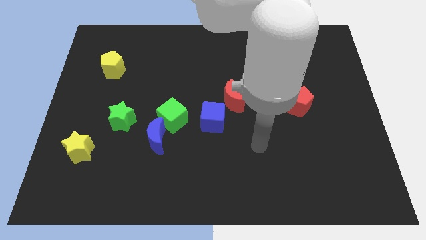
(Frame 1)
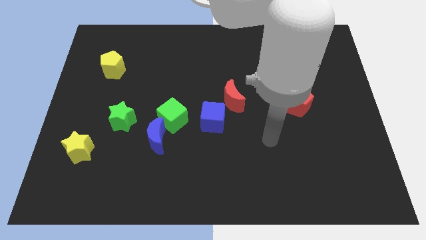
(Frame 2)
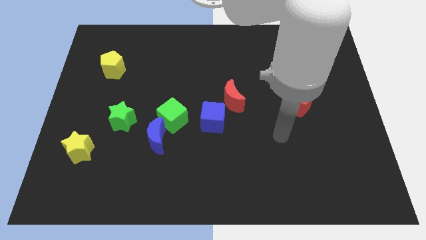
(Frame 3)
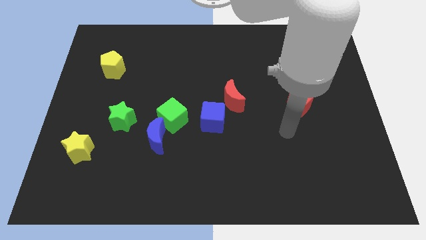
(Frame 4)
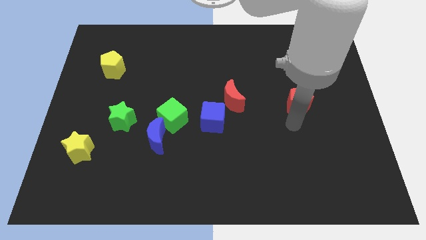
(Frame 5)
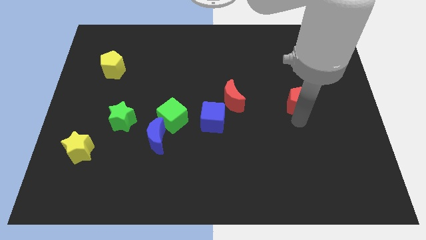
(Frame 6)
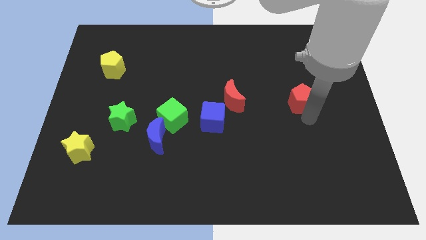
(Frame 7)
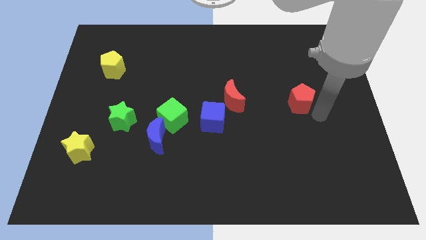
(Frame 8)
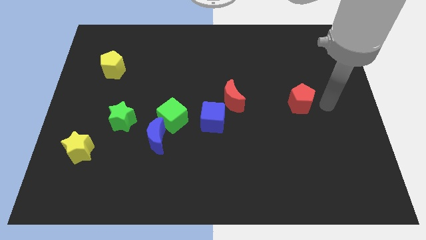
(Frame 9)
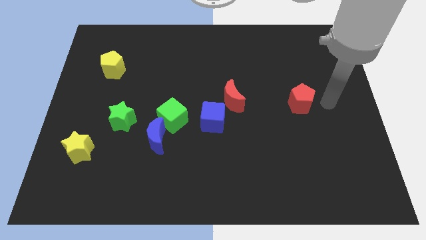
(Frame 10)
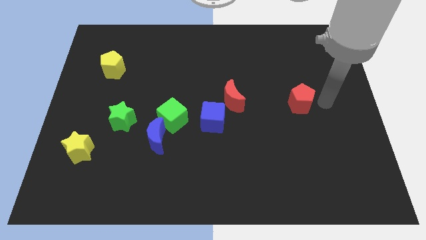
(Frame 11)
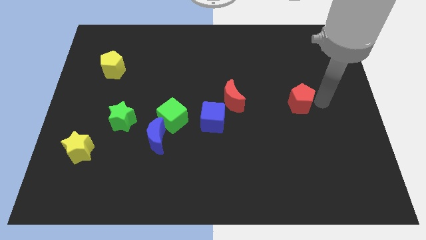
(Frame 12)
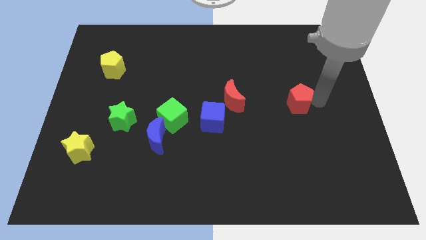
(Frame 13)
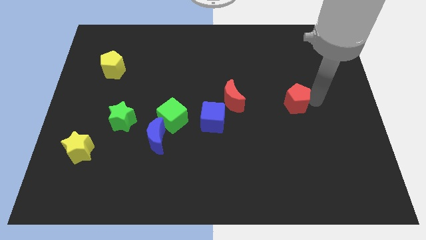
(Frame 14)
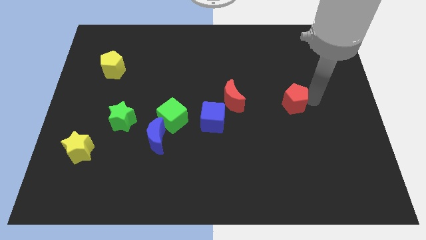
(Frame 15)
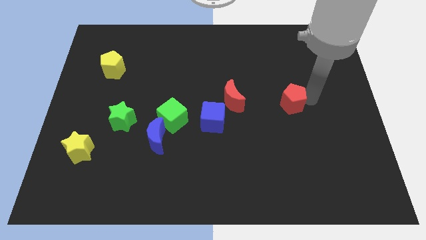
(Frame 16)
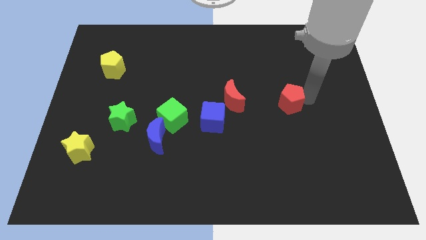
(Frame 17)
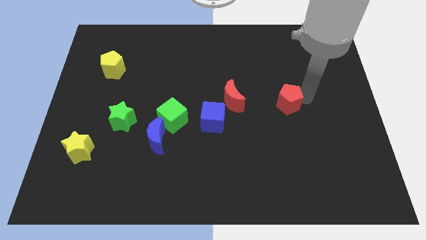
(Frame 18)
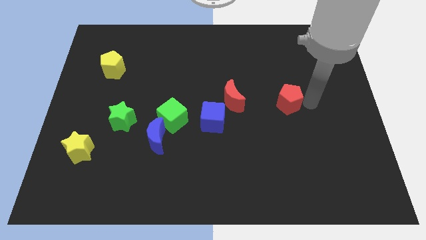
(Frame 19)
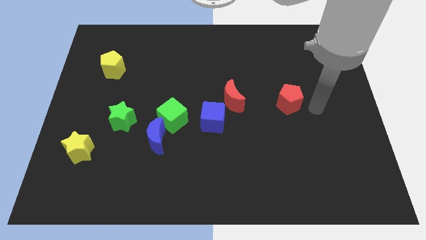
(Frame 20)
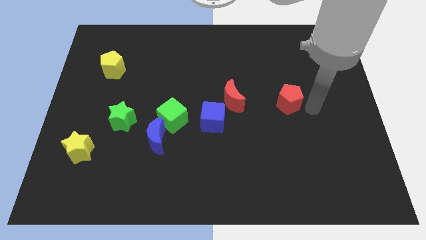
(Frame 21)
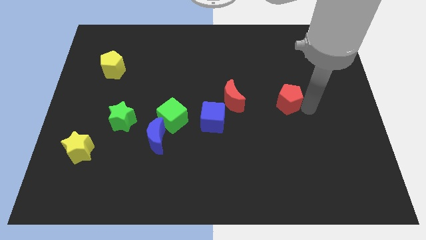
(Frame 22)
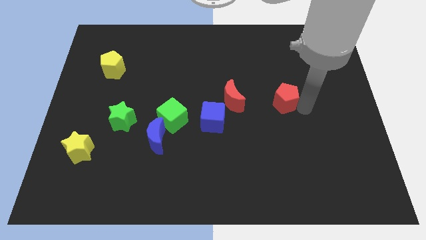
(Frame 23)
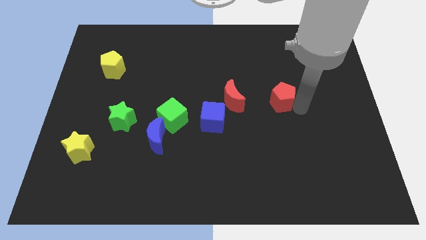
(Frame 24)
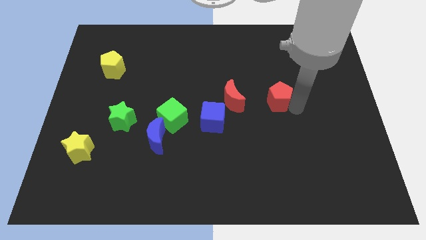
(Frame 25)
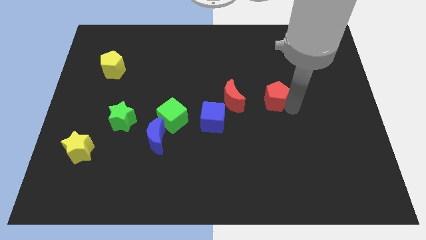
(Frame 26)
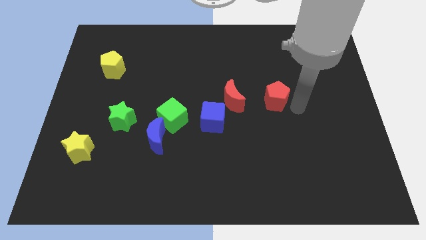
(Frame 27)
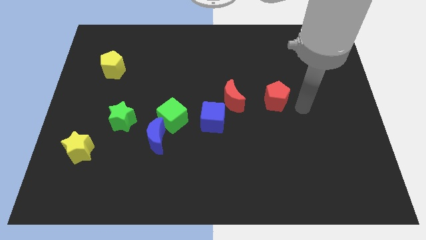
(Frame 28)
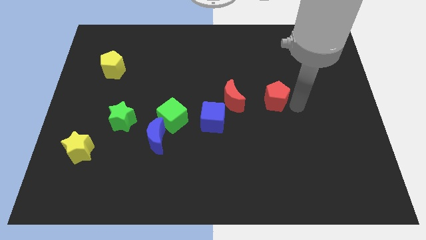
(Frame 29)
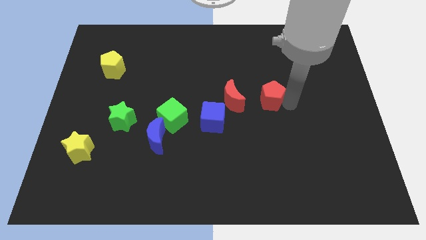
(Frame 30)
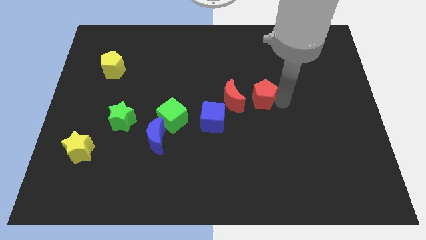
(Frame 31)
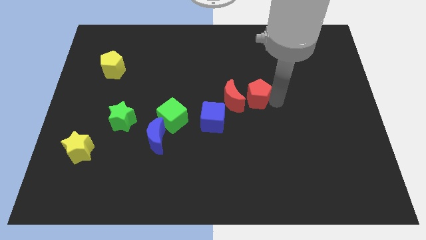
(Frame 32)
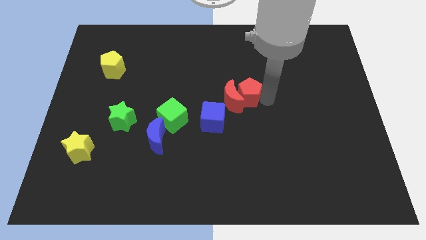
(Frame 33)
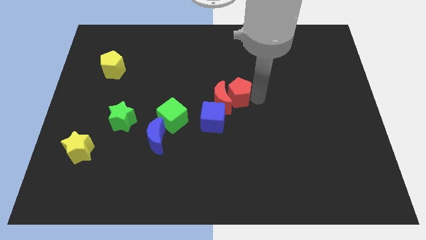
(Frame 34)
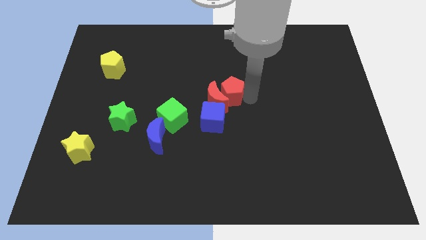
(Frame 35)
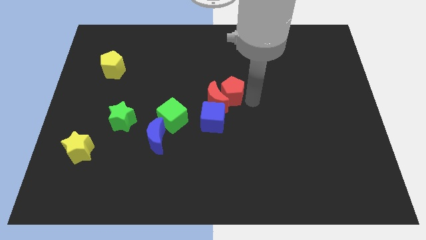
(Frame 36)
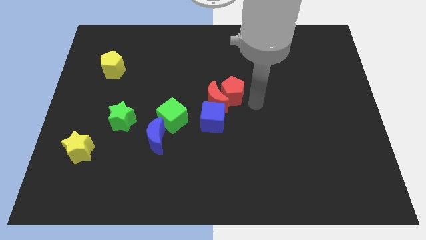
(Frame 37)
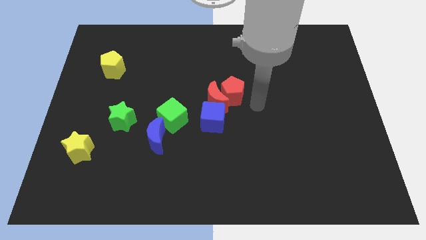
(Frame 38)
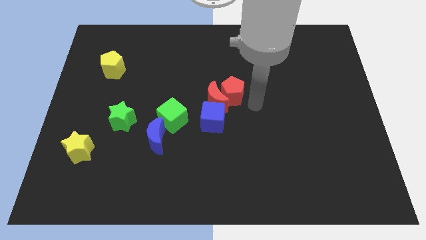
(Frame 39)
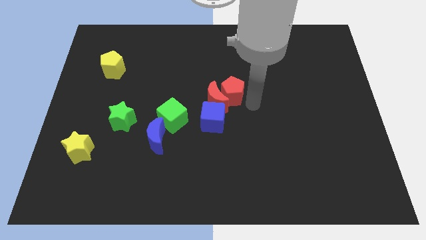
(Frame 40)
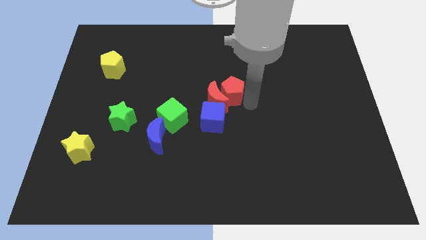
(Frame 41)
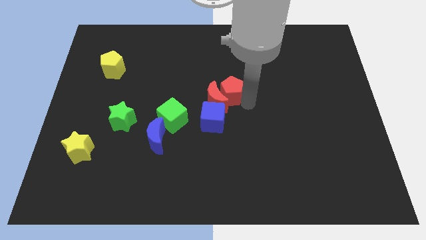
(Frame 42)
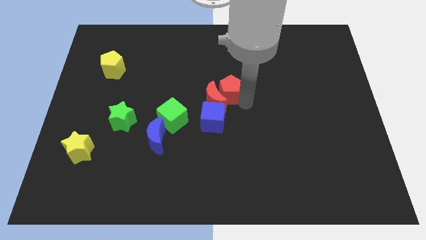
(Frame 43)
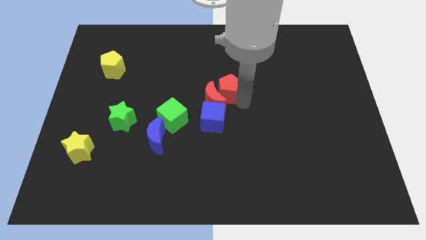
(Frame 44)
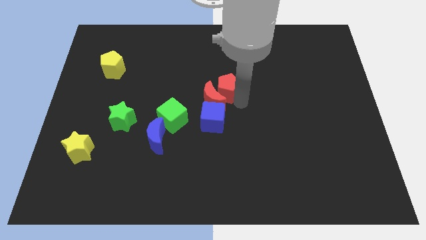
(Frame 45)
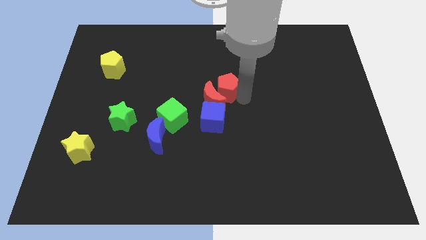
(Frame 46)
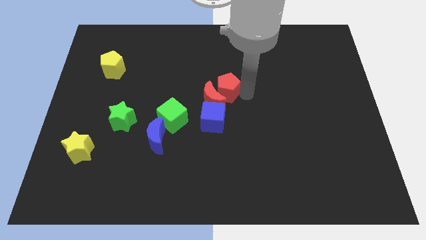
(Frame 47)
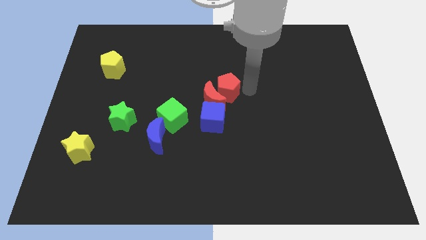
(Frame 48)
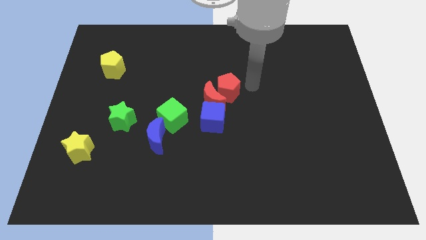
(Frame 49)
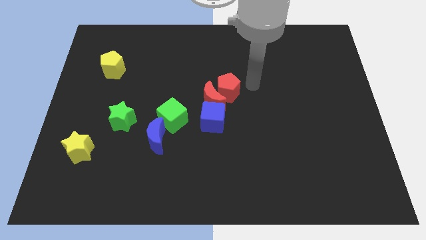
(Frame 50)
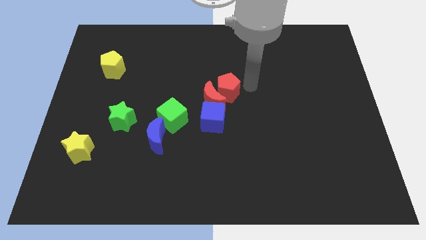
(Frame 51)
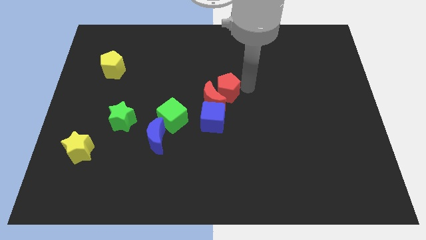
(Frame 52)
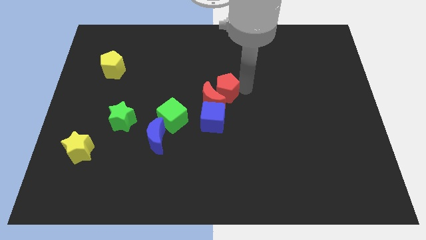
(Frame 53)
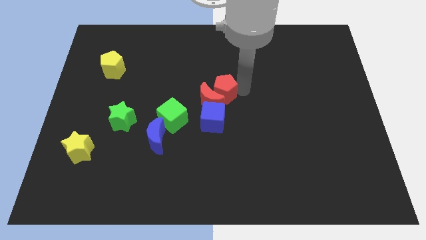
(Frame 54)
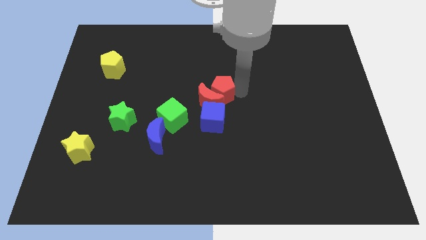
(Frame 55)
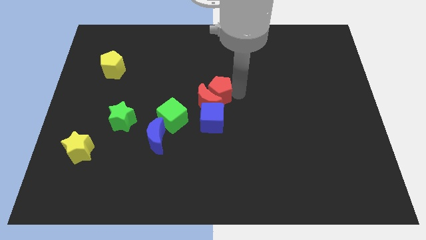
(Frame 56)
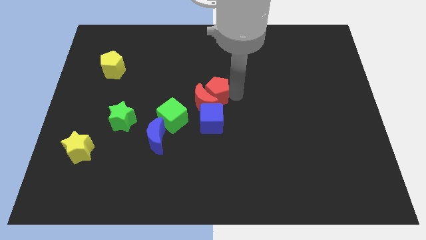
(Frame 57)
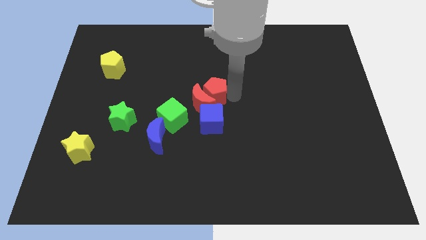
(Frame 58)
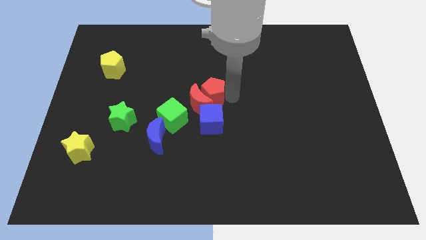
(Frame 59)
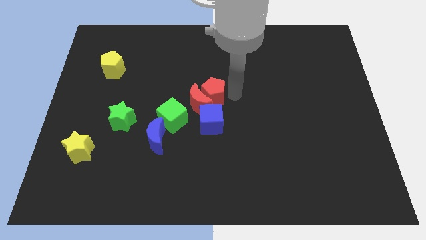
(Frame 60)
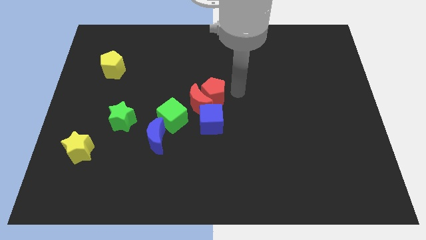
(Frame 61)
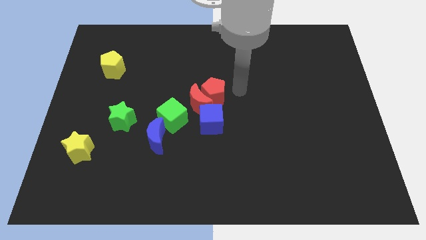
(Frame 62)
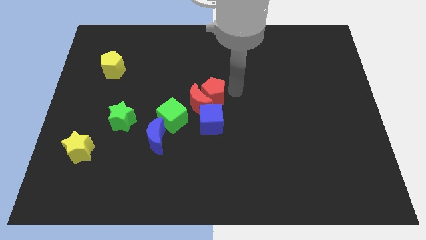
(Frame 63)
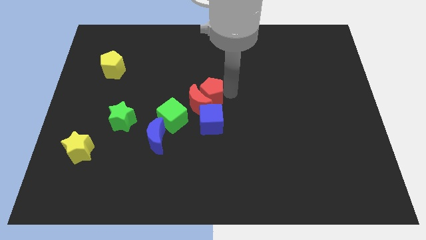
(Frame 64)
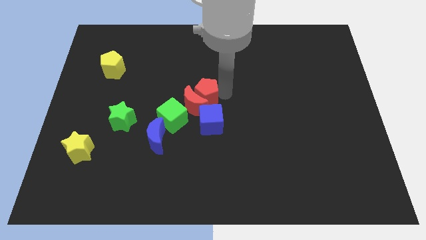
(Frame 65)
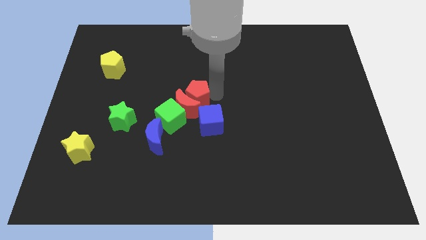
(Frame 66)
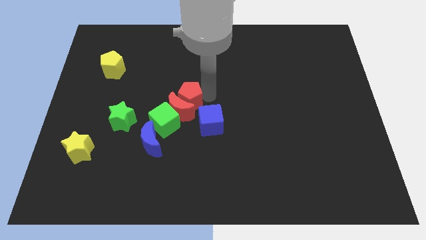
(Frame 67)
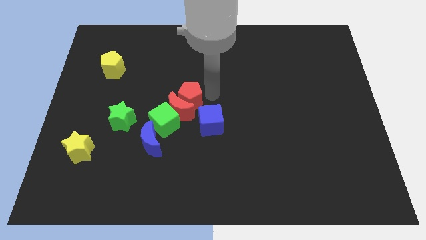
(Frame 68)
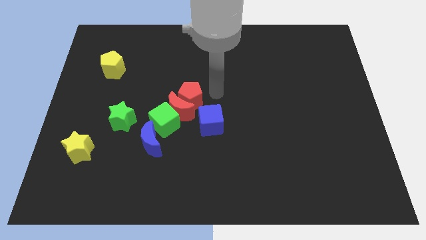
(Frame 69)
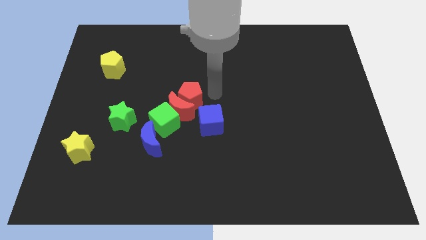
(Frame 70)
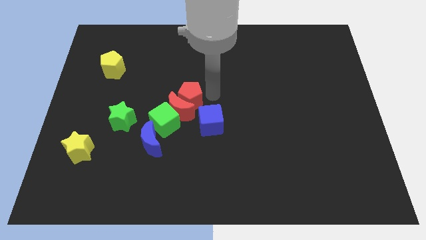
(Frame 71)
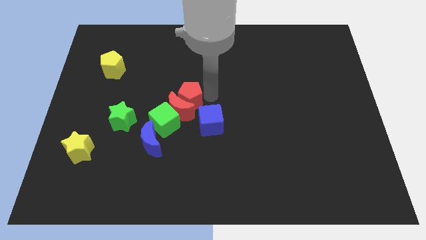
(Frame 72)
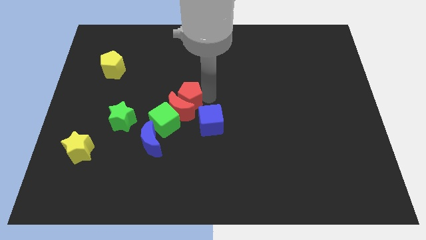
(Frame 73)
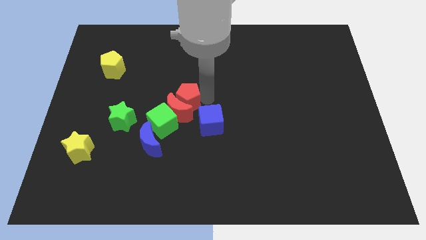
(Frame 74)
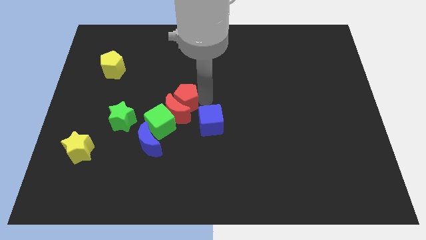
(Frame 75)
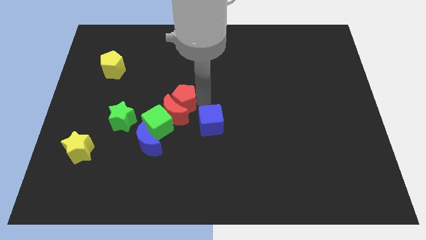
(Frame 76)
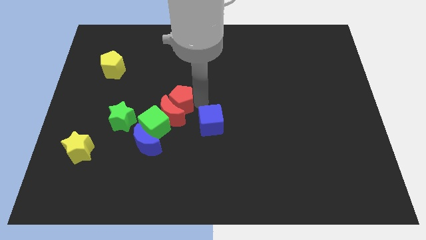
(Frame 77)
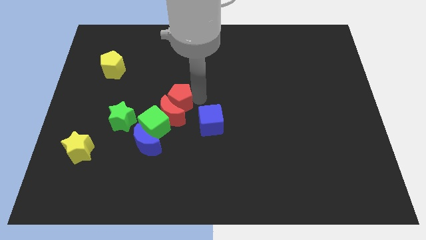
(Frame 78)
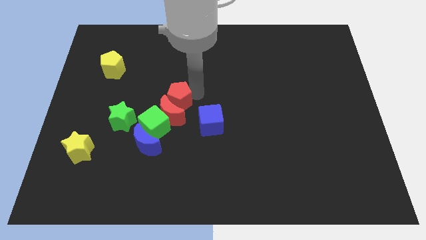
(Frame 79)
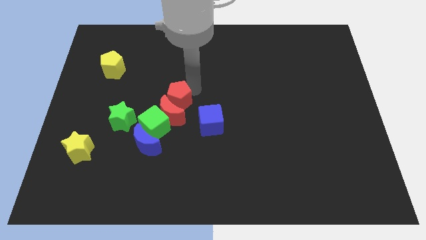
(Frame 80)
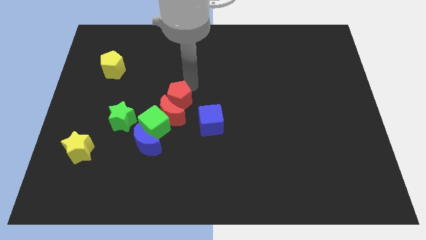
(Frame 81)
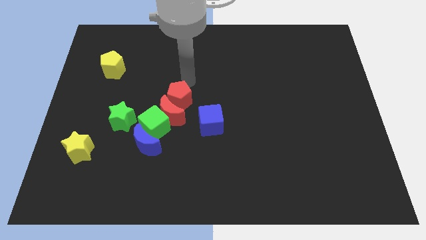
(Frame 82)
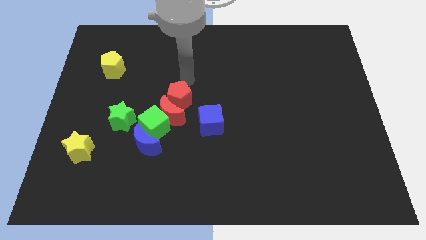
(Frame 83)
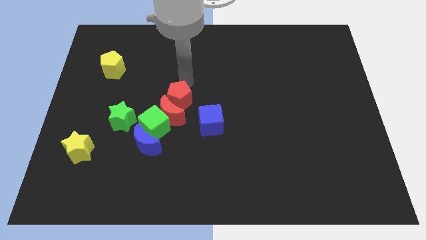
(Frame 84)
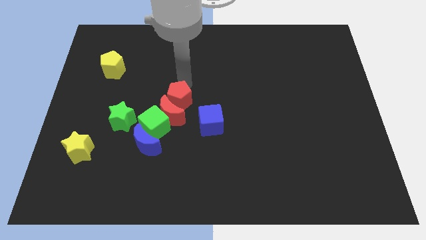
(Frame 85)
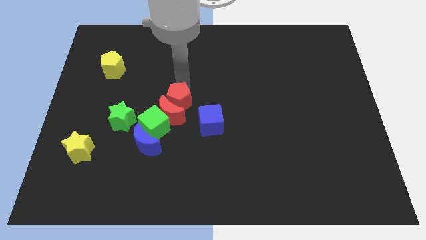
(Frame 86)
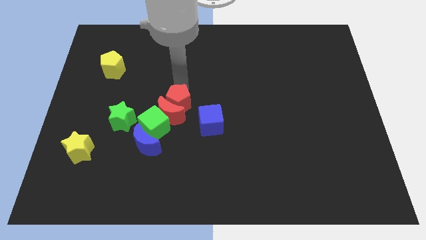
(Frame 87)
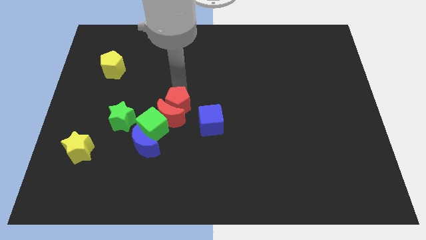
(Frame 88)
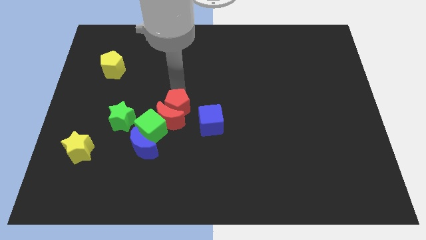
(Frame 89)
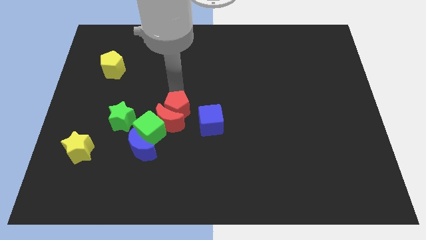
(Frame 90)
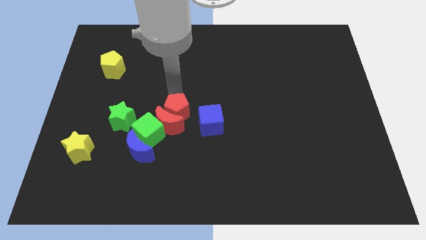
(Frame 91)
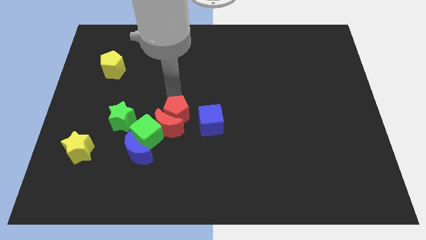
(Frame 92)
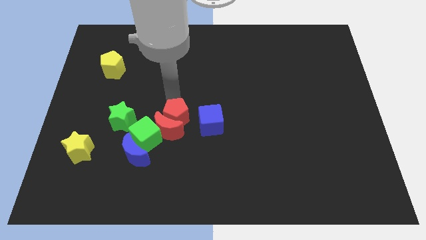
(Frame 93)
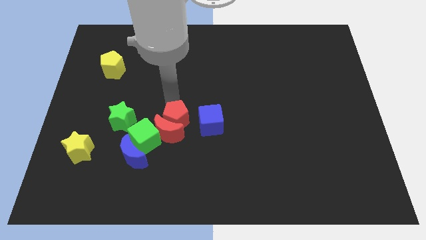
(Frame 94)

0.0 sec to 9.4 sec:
put the red pentagon diagonally up and to the right of the blue moon
